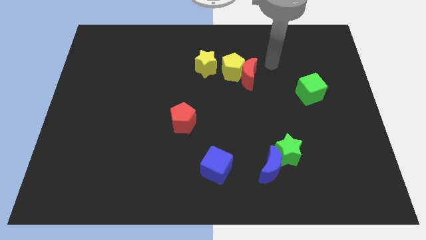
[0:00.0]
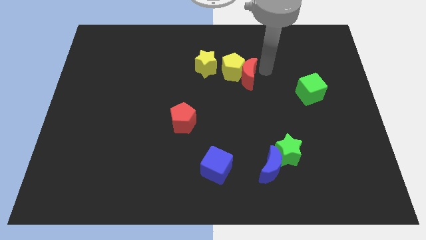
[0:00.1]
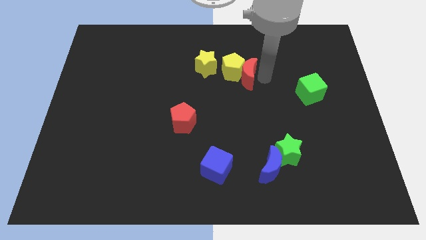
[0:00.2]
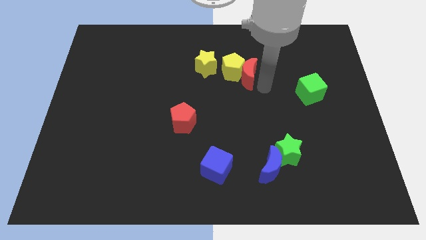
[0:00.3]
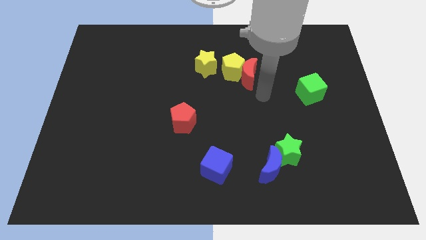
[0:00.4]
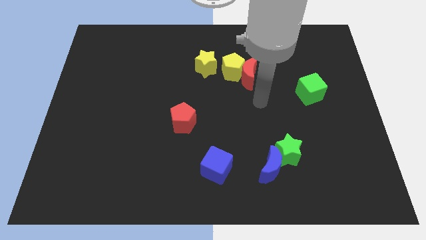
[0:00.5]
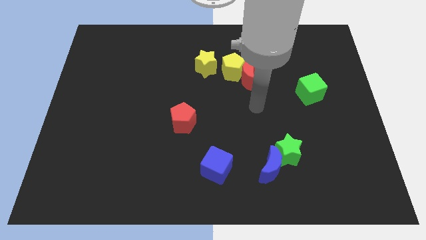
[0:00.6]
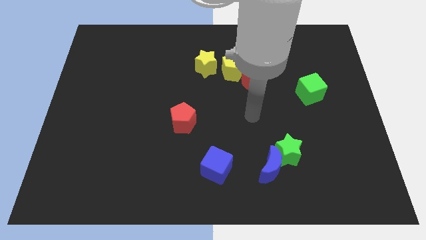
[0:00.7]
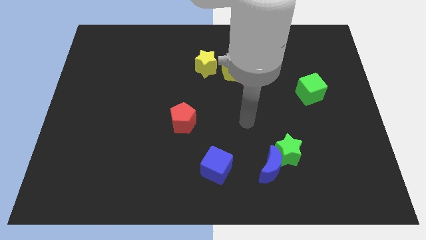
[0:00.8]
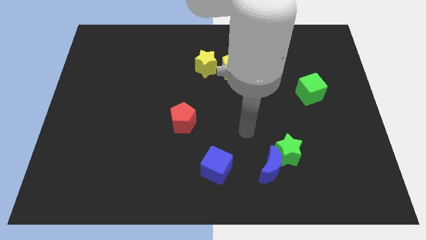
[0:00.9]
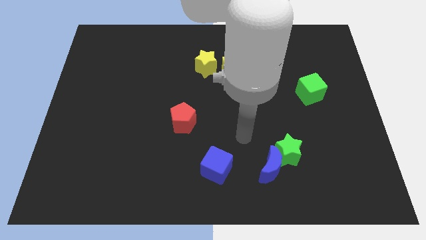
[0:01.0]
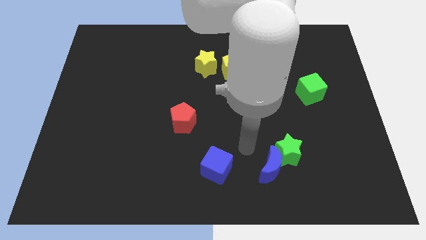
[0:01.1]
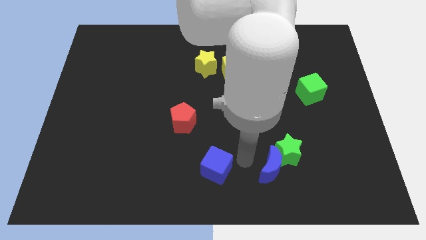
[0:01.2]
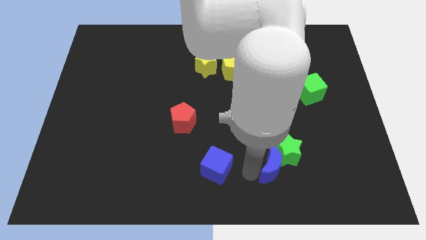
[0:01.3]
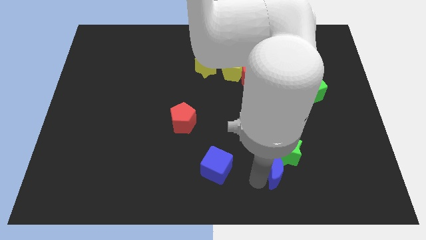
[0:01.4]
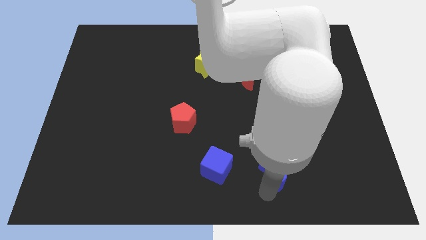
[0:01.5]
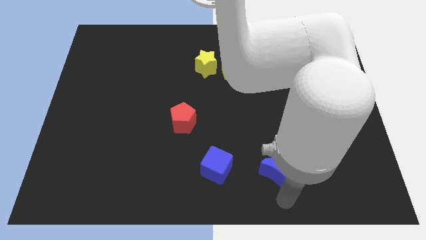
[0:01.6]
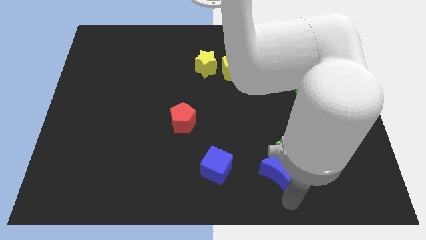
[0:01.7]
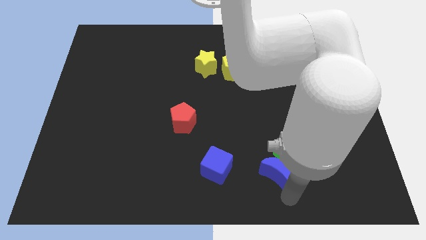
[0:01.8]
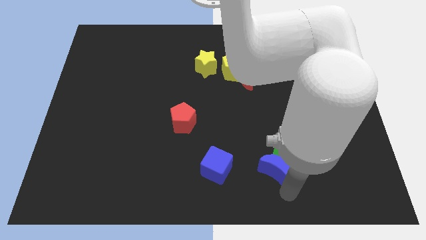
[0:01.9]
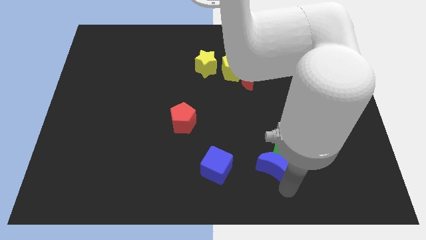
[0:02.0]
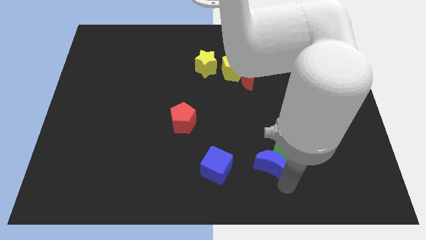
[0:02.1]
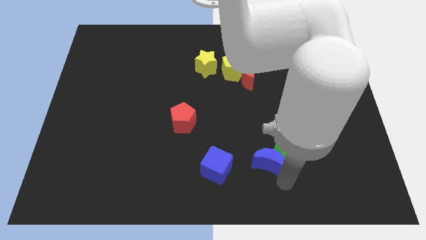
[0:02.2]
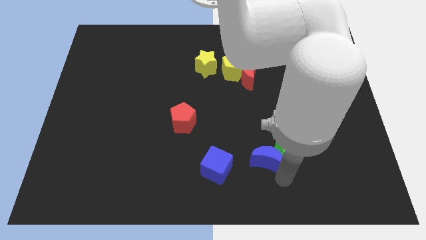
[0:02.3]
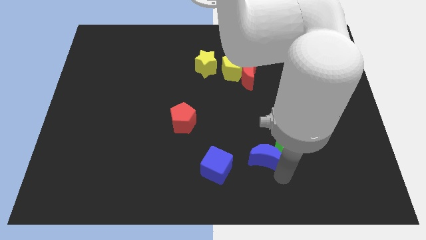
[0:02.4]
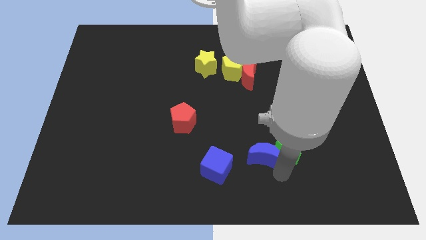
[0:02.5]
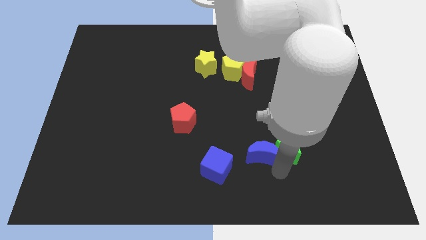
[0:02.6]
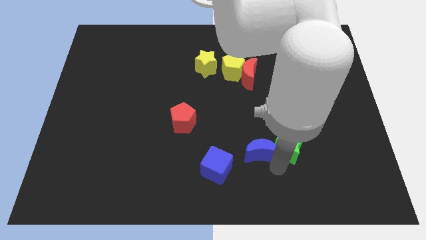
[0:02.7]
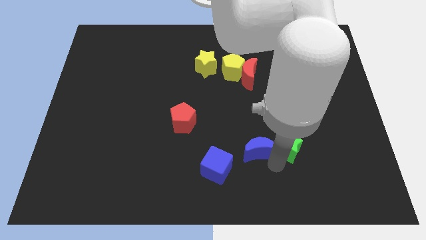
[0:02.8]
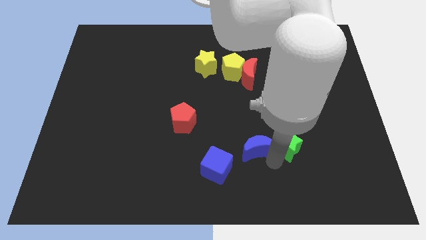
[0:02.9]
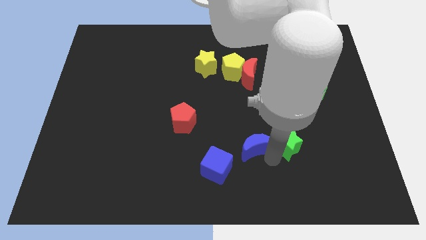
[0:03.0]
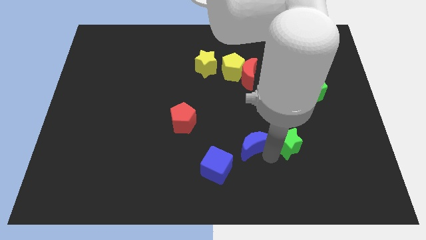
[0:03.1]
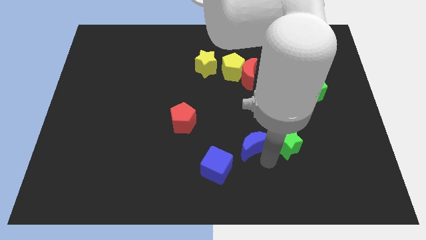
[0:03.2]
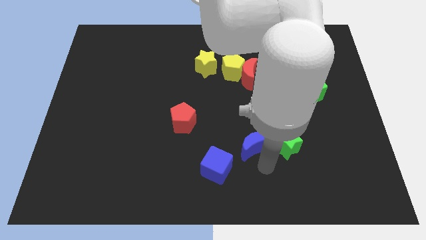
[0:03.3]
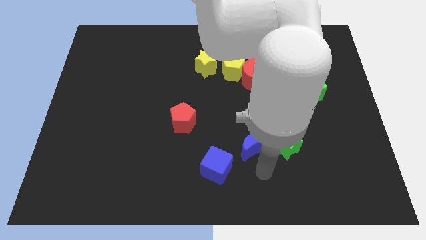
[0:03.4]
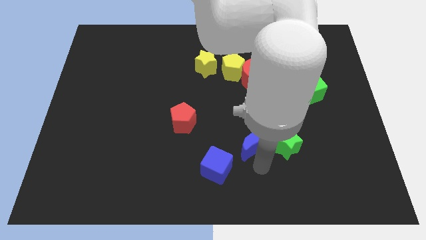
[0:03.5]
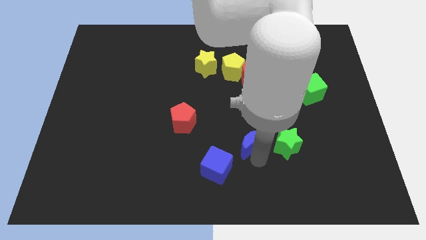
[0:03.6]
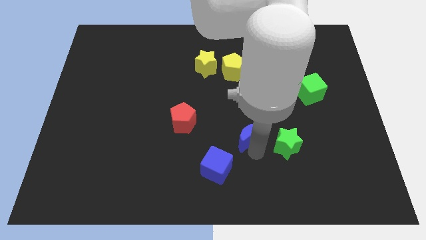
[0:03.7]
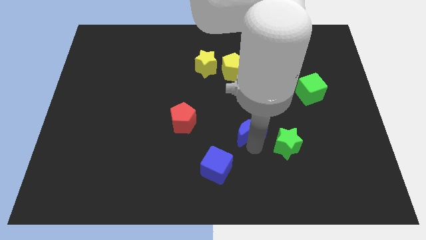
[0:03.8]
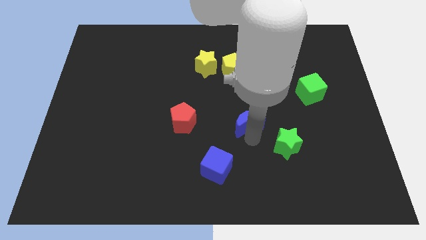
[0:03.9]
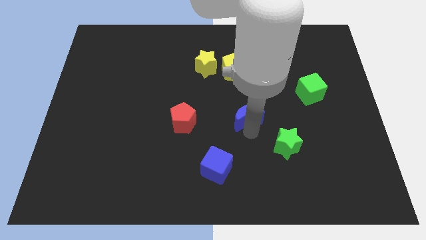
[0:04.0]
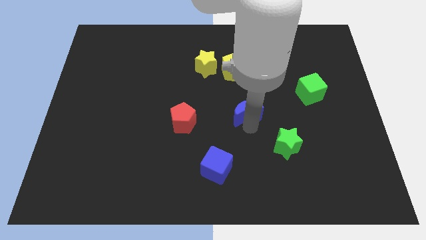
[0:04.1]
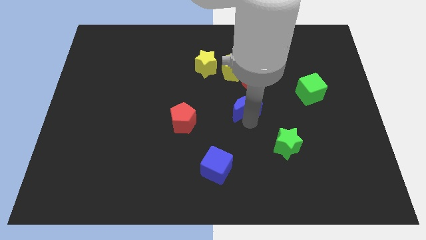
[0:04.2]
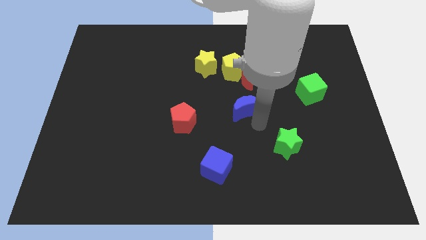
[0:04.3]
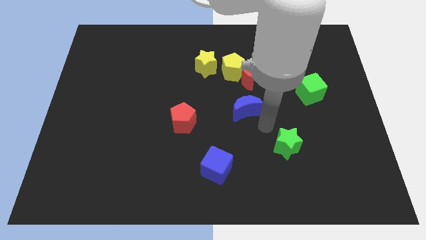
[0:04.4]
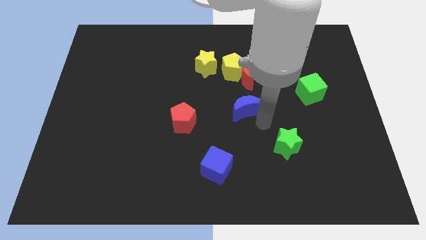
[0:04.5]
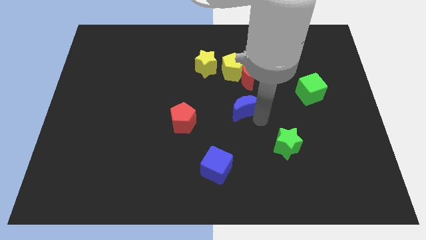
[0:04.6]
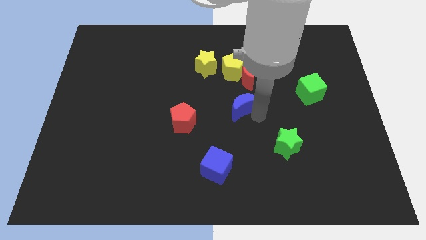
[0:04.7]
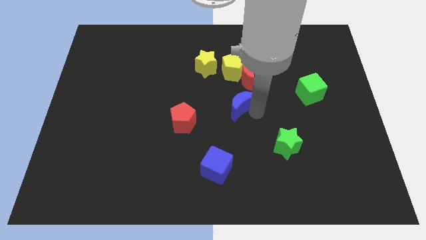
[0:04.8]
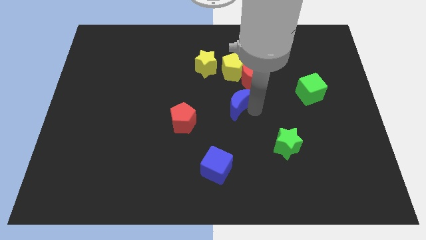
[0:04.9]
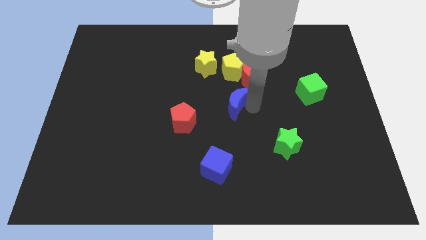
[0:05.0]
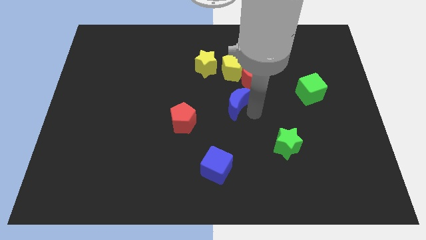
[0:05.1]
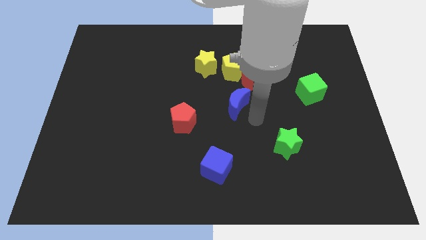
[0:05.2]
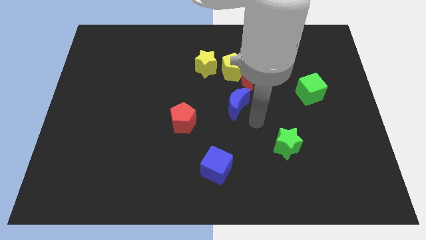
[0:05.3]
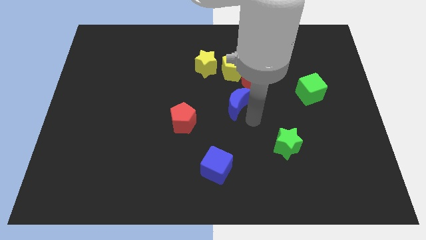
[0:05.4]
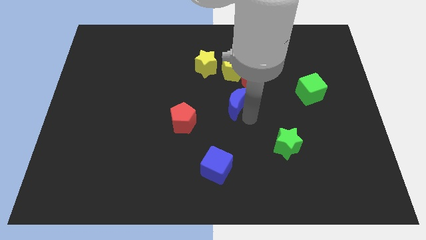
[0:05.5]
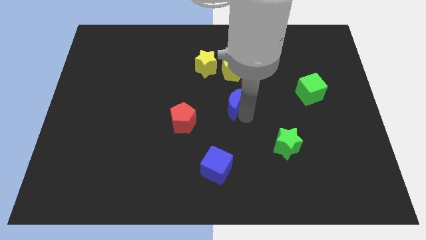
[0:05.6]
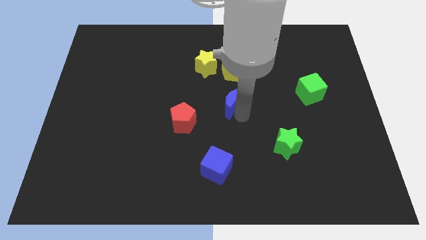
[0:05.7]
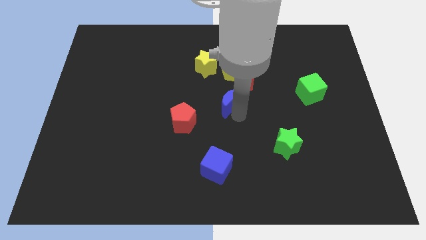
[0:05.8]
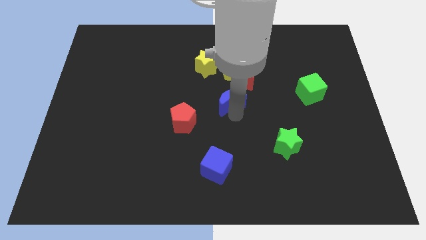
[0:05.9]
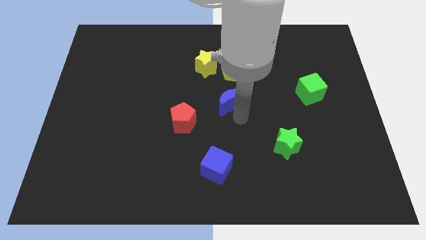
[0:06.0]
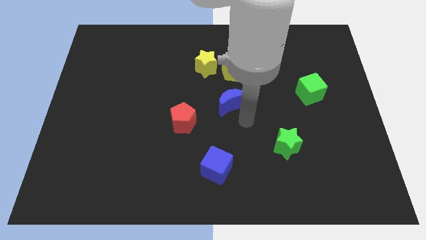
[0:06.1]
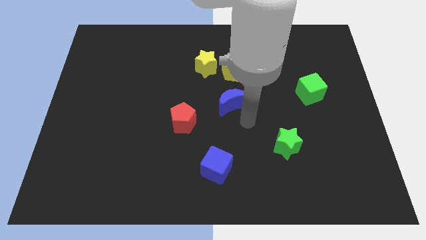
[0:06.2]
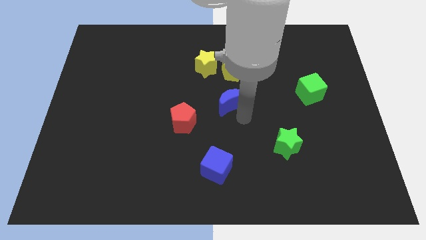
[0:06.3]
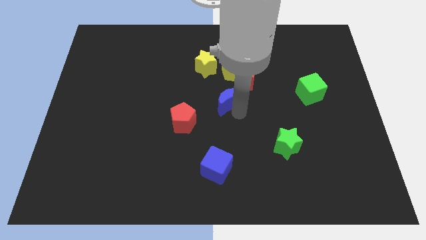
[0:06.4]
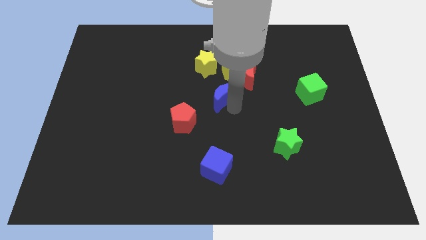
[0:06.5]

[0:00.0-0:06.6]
slide the blue moon to the bottom left side of the yellow pentagon

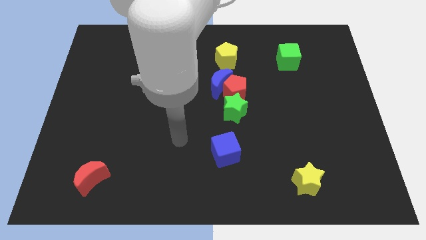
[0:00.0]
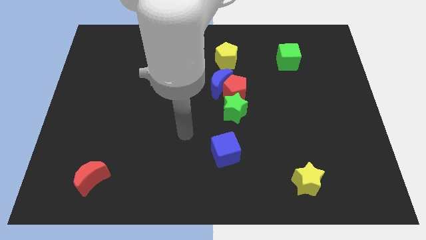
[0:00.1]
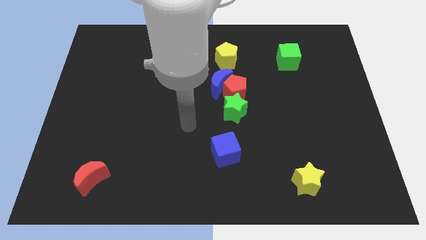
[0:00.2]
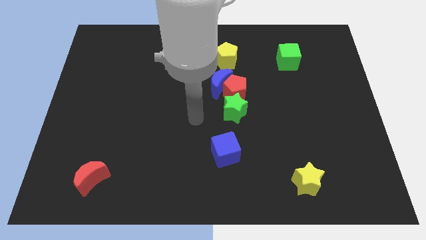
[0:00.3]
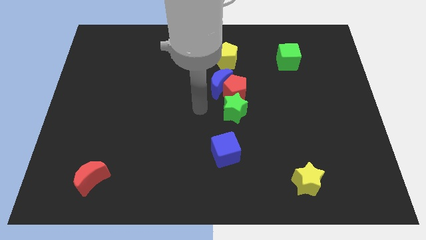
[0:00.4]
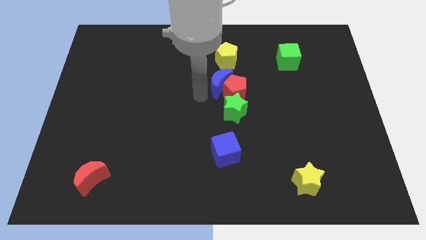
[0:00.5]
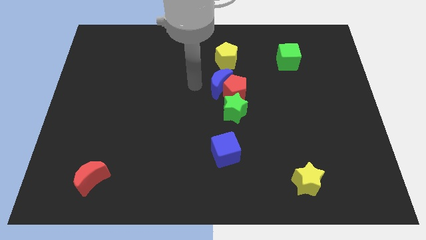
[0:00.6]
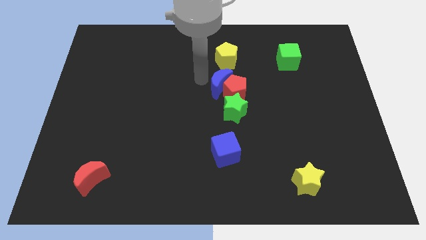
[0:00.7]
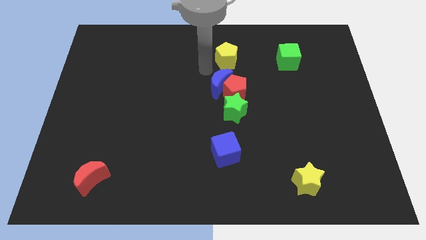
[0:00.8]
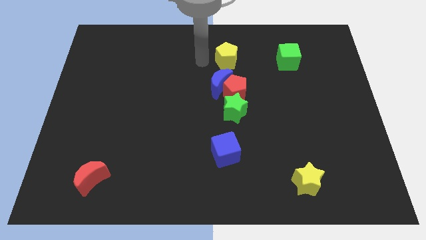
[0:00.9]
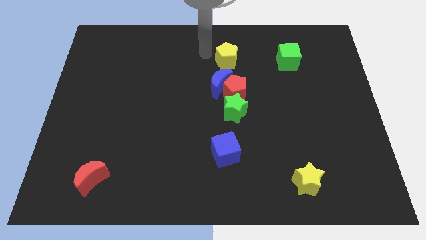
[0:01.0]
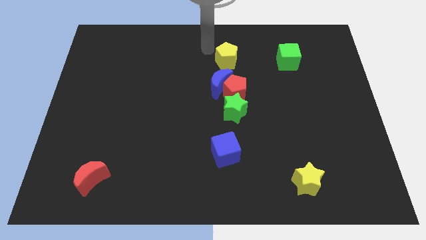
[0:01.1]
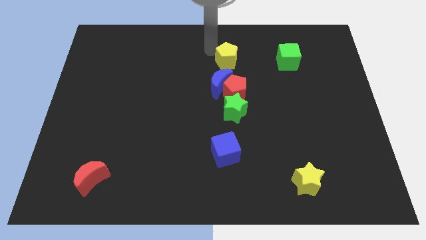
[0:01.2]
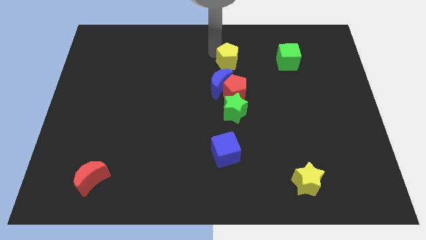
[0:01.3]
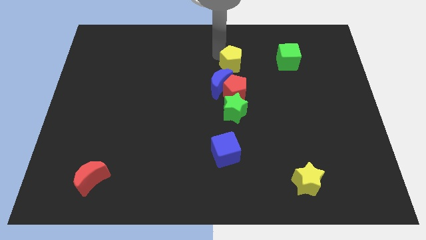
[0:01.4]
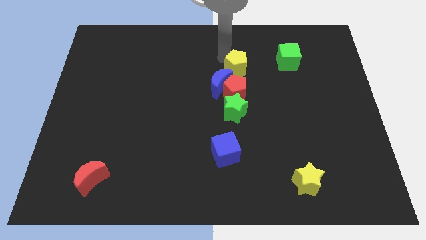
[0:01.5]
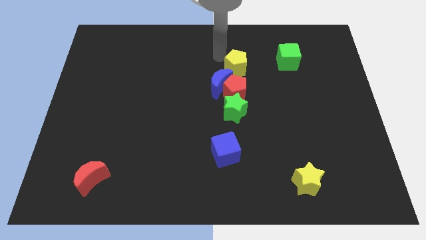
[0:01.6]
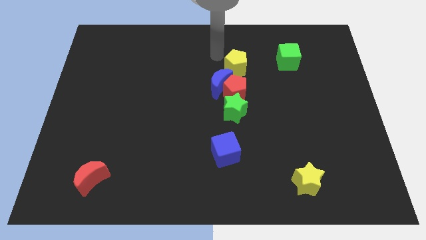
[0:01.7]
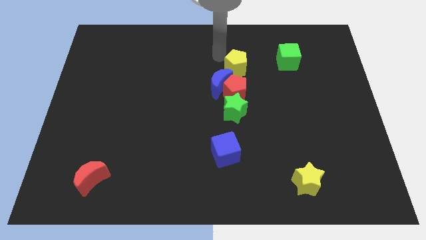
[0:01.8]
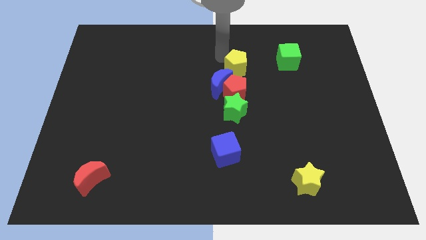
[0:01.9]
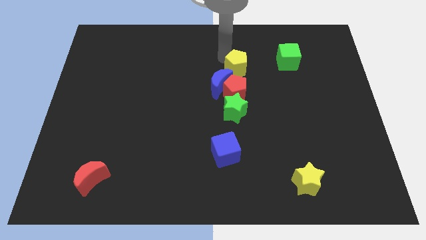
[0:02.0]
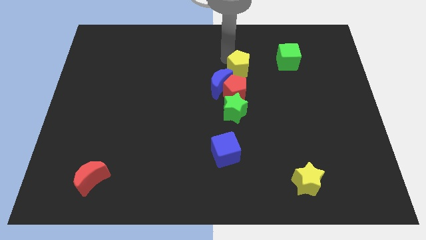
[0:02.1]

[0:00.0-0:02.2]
slide the yellow pentagon to the top right of the red pentagon
